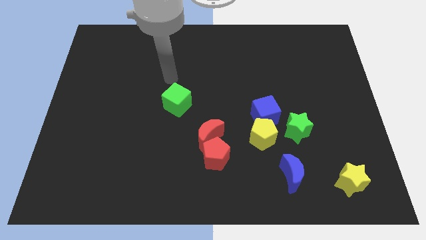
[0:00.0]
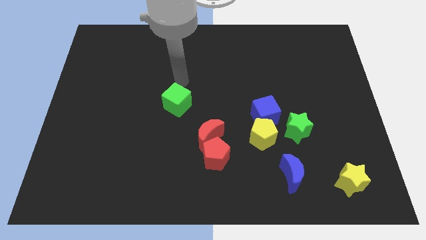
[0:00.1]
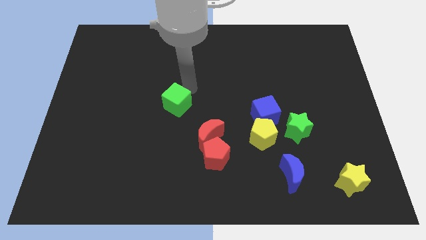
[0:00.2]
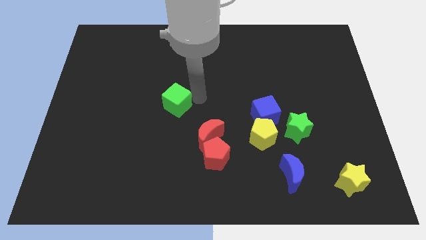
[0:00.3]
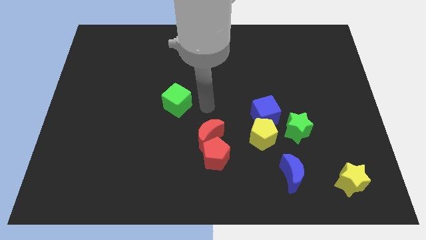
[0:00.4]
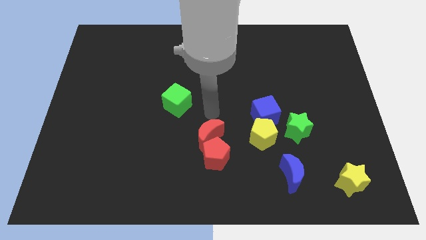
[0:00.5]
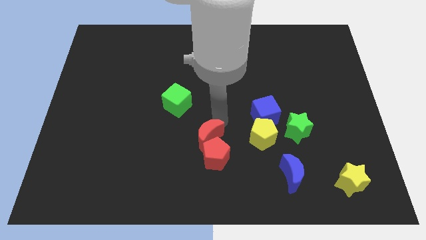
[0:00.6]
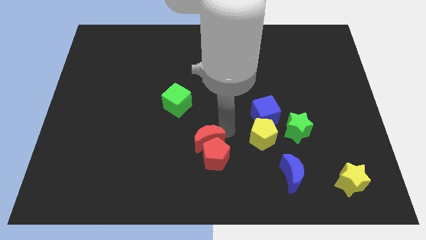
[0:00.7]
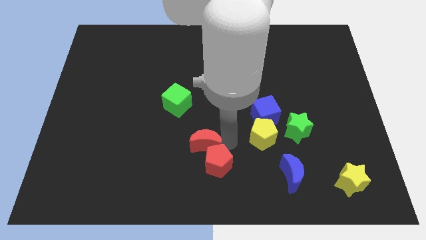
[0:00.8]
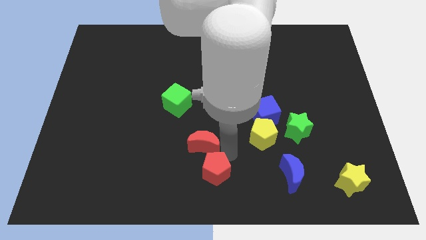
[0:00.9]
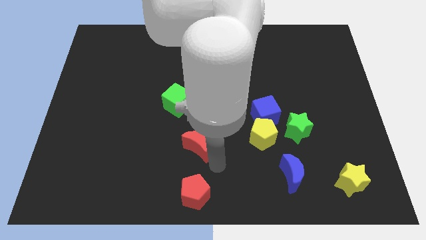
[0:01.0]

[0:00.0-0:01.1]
pull the red moon apart from the red pentagon

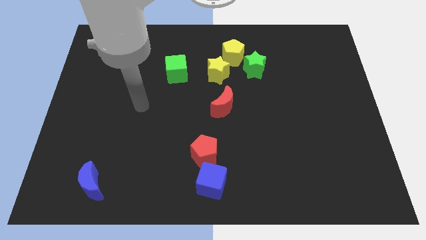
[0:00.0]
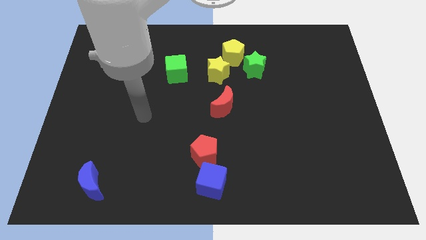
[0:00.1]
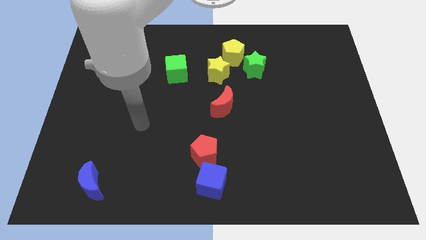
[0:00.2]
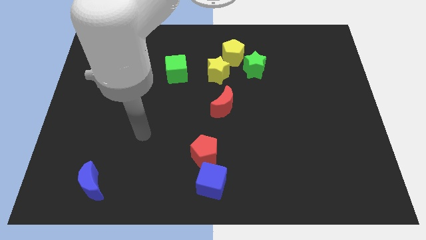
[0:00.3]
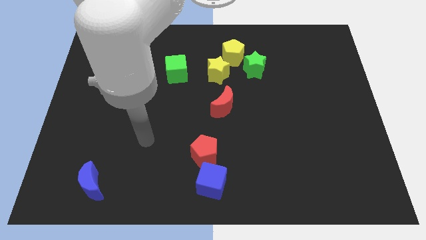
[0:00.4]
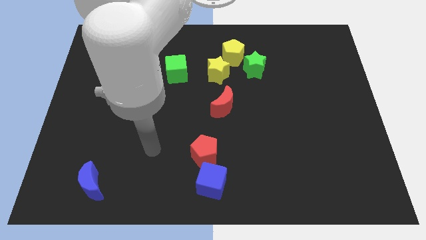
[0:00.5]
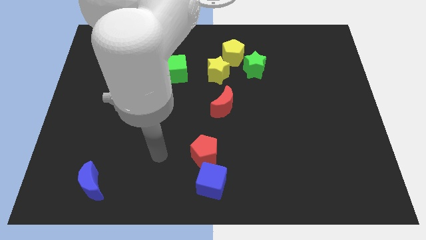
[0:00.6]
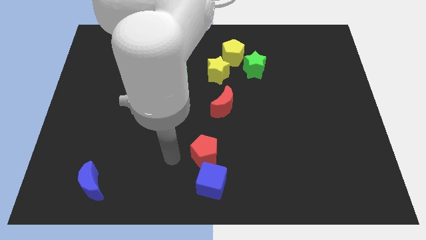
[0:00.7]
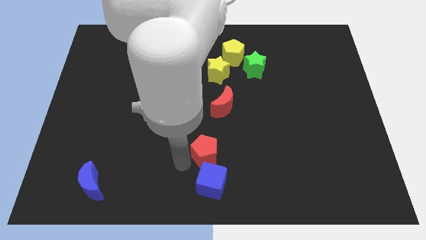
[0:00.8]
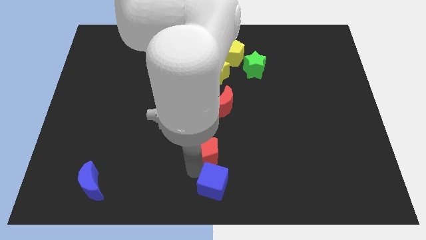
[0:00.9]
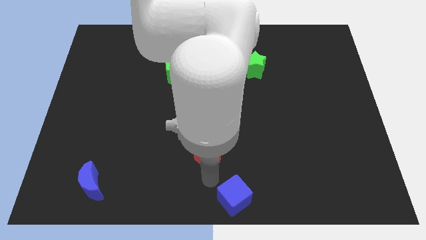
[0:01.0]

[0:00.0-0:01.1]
separate the red pentagon from the blue cube

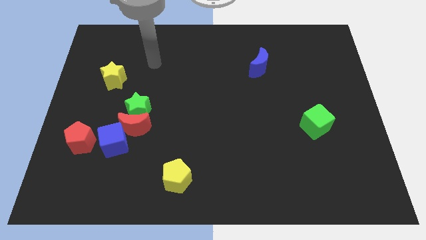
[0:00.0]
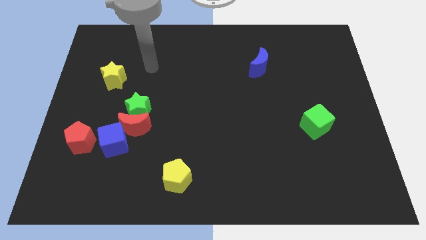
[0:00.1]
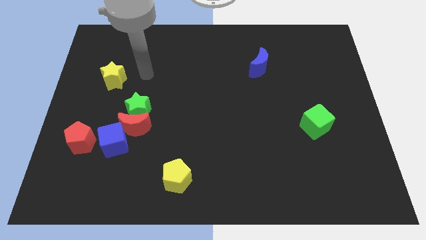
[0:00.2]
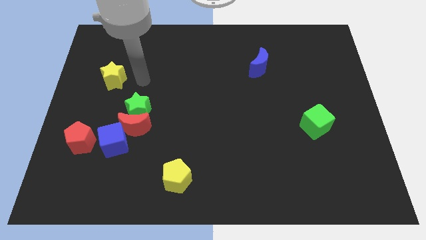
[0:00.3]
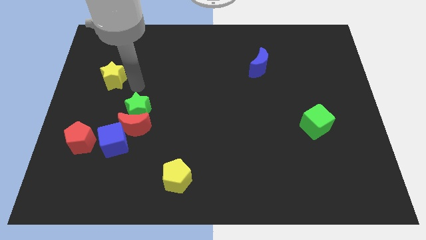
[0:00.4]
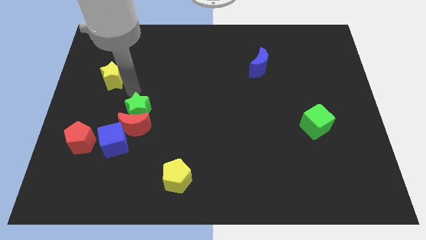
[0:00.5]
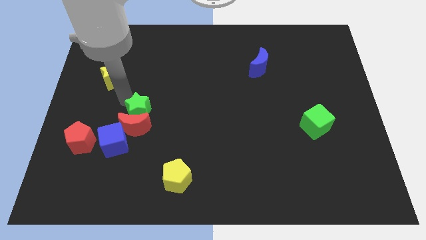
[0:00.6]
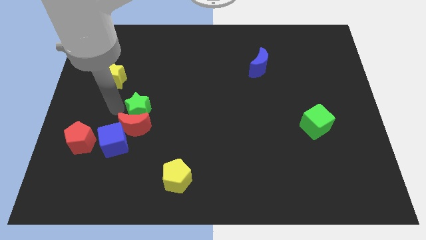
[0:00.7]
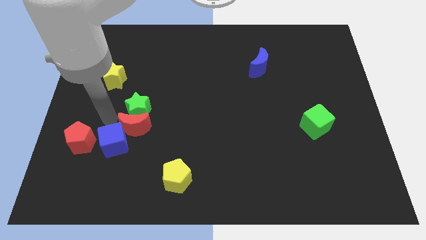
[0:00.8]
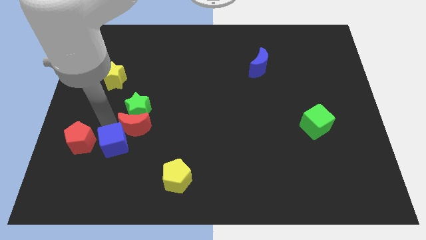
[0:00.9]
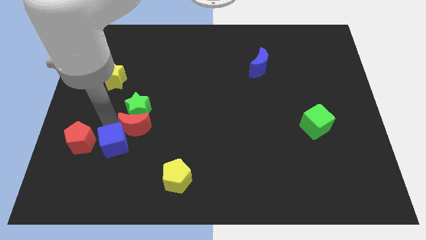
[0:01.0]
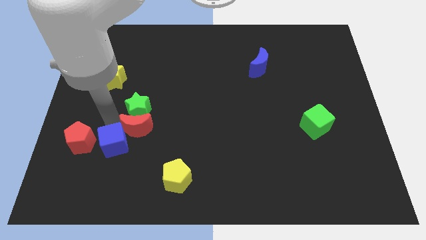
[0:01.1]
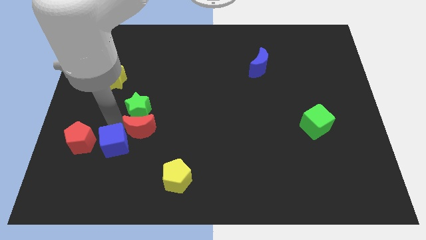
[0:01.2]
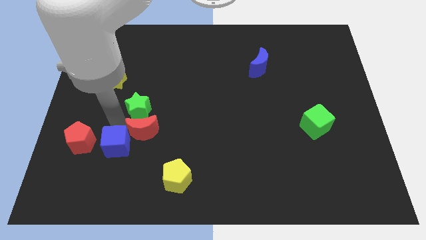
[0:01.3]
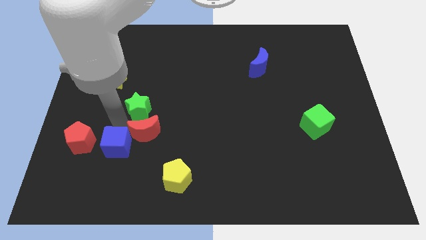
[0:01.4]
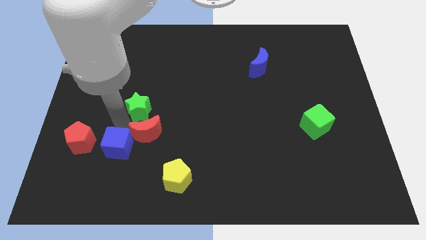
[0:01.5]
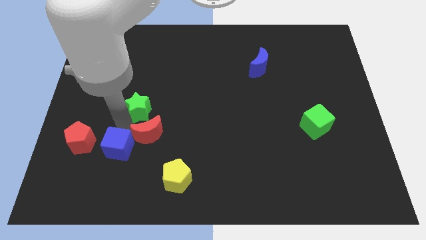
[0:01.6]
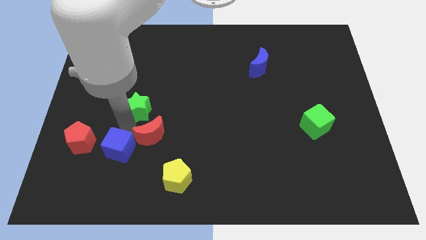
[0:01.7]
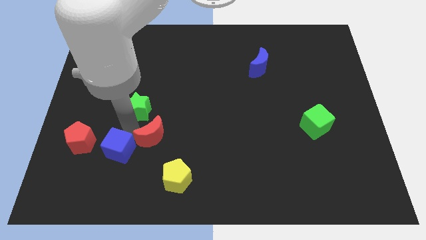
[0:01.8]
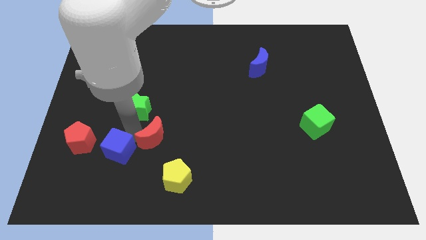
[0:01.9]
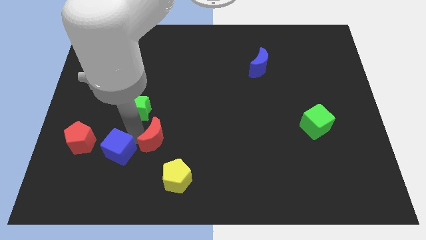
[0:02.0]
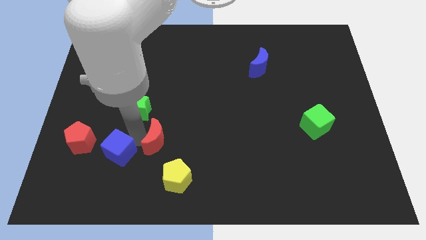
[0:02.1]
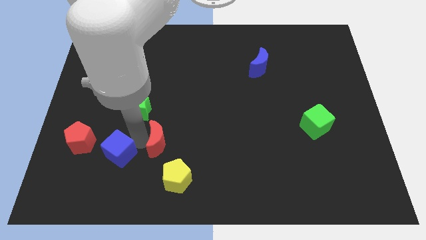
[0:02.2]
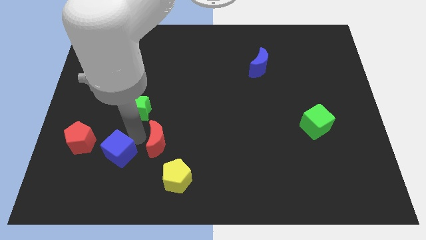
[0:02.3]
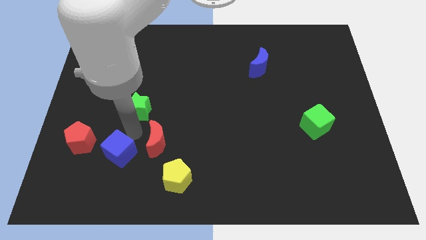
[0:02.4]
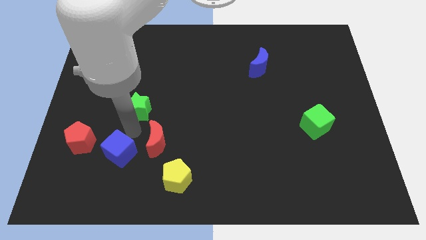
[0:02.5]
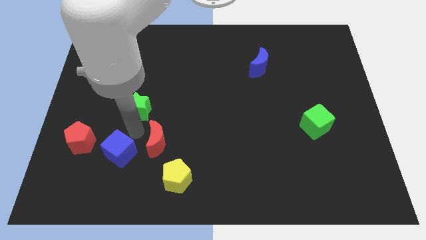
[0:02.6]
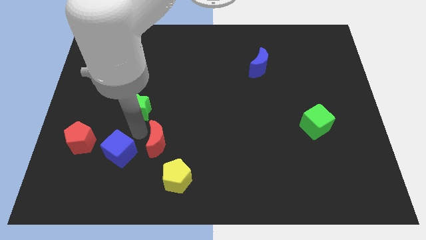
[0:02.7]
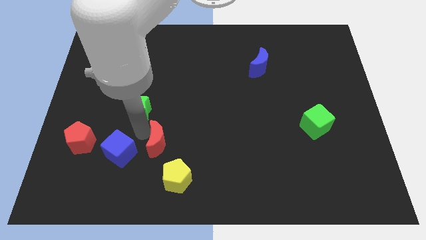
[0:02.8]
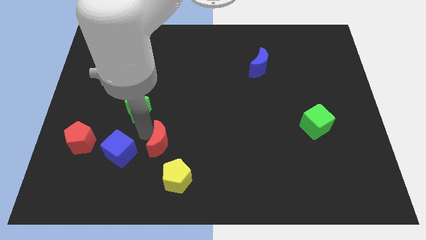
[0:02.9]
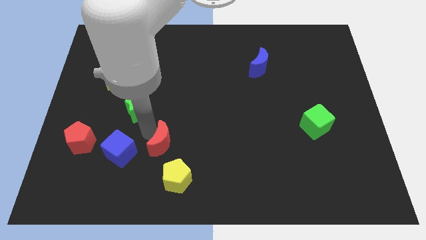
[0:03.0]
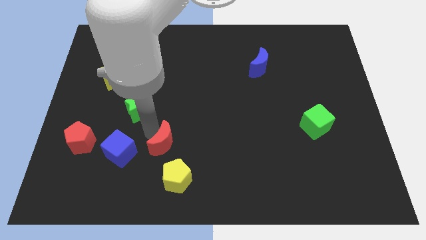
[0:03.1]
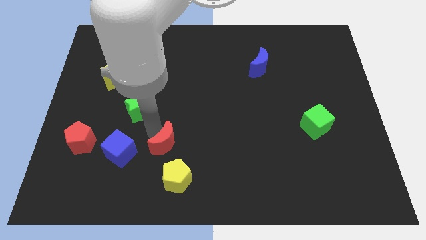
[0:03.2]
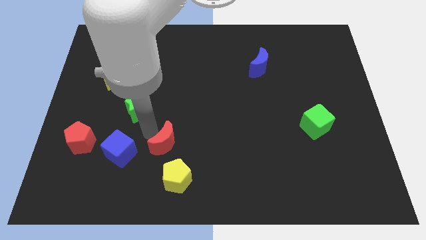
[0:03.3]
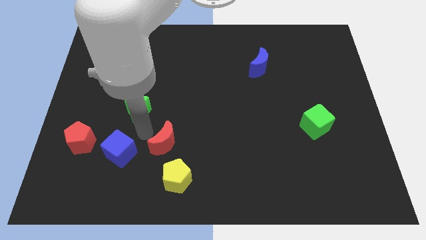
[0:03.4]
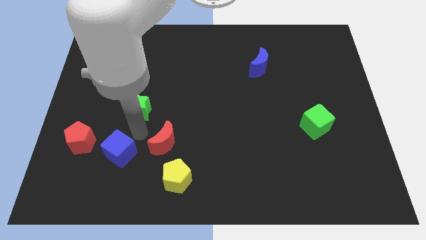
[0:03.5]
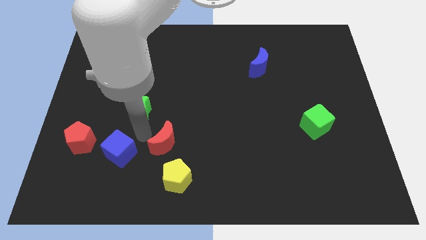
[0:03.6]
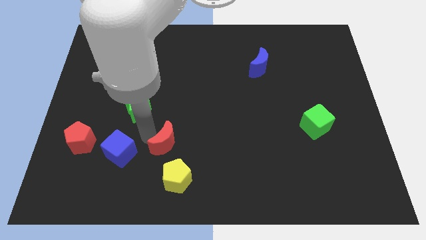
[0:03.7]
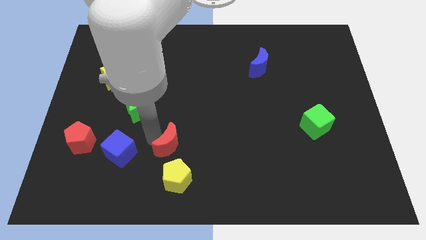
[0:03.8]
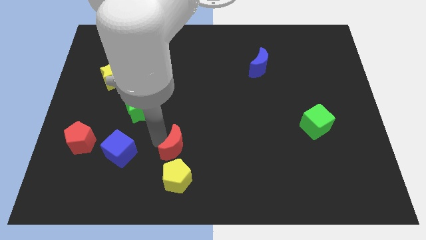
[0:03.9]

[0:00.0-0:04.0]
pull the red moon apart from the green star and blue cube

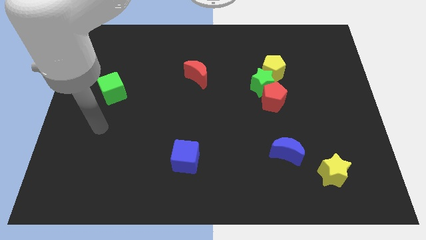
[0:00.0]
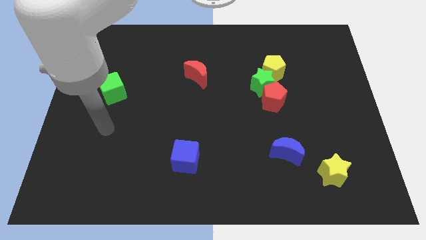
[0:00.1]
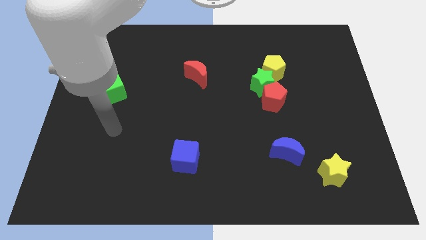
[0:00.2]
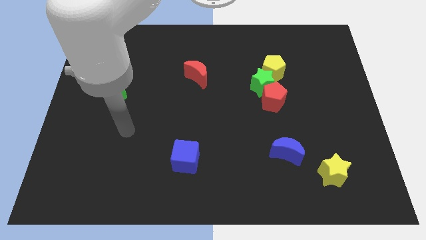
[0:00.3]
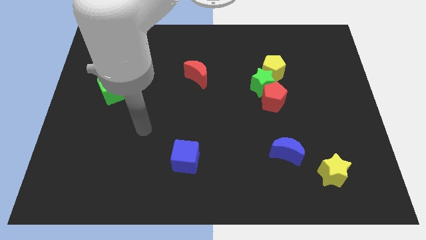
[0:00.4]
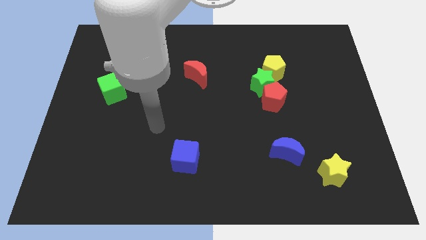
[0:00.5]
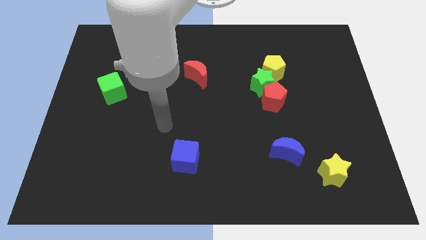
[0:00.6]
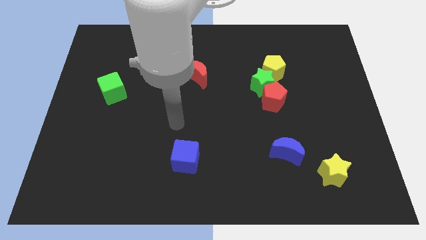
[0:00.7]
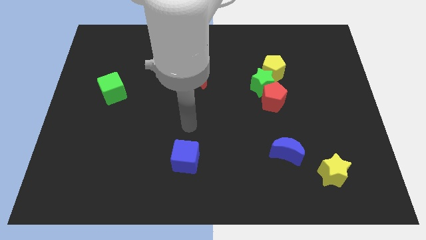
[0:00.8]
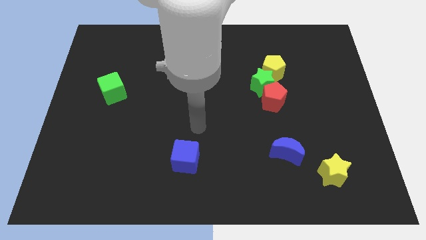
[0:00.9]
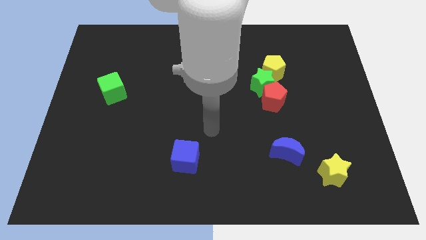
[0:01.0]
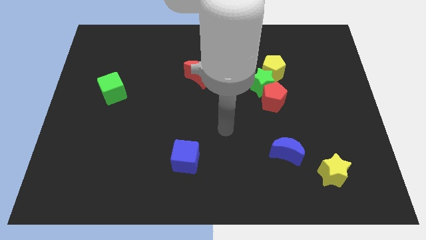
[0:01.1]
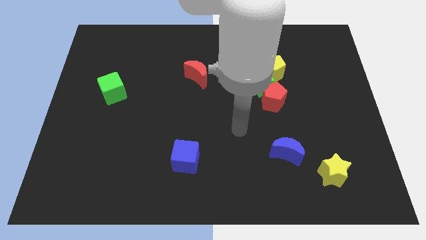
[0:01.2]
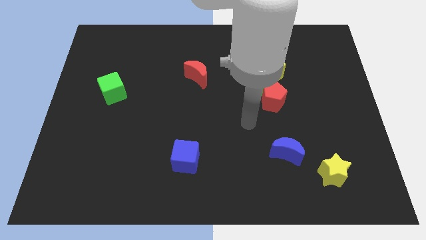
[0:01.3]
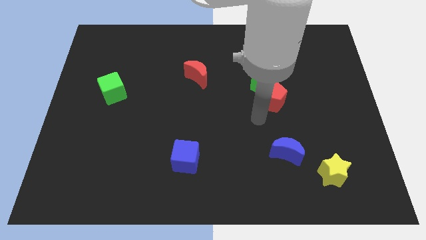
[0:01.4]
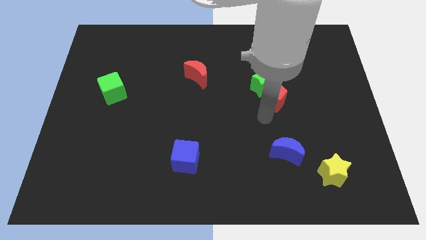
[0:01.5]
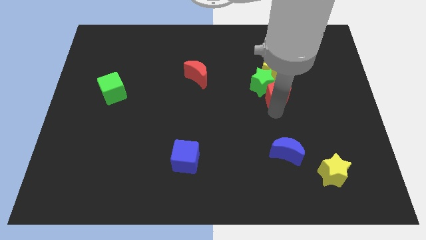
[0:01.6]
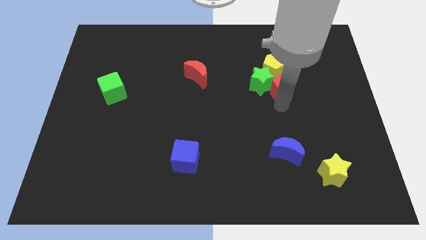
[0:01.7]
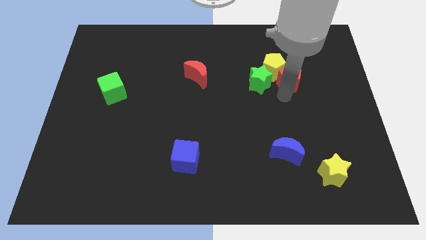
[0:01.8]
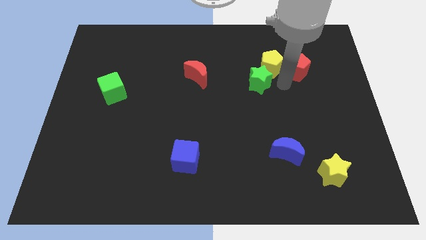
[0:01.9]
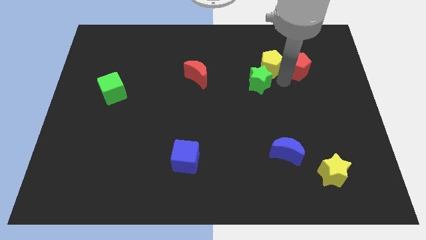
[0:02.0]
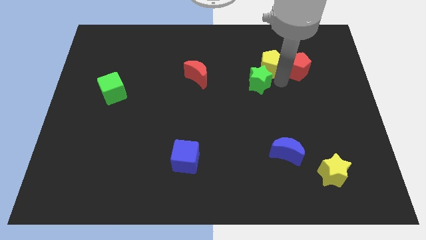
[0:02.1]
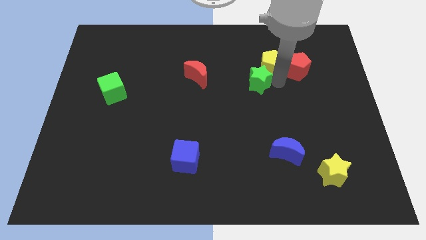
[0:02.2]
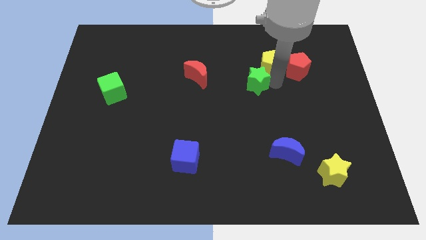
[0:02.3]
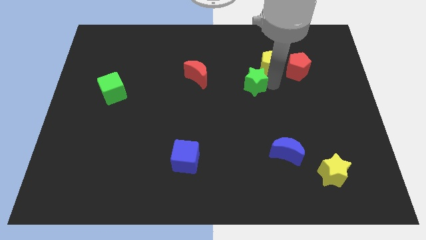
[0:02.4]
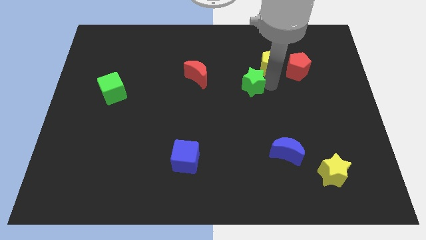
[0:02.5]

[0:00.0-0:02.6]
separate the green star from the red pentagon and yellow pentagon

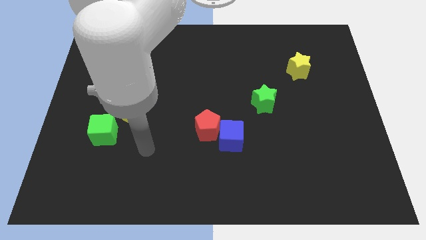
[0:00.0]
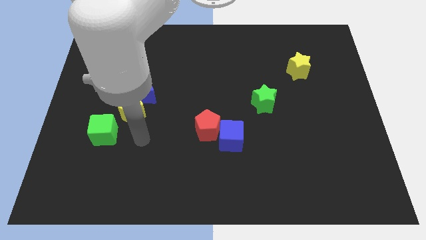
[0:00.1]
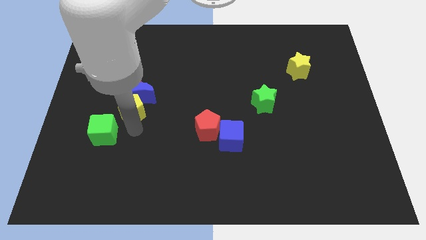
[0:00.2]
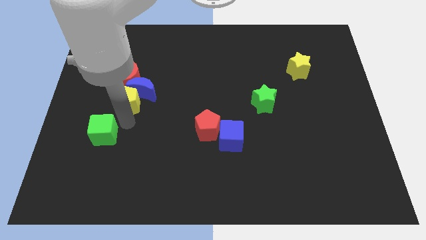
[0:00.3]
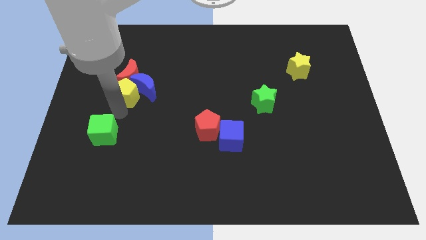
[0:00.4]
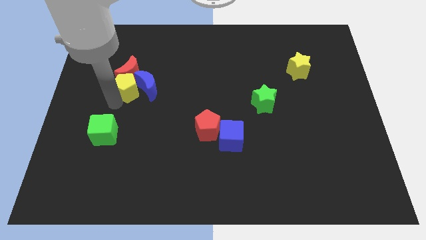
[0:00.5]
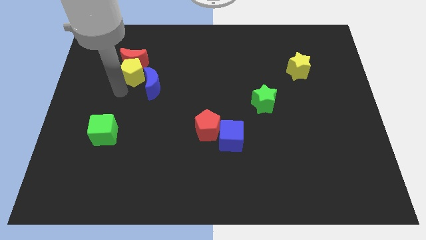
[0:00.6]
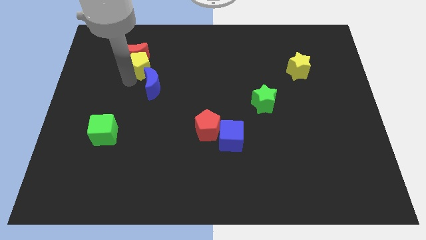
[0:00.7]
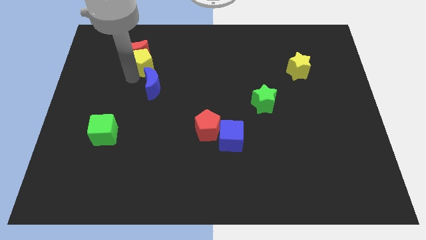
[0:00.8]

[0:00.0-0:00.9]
pull the blue moon apart from the red moon and yellow pentagon
